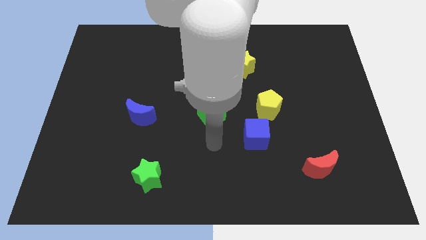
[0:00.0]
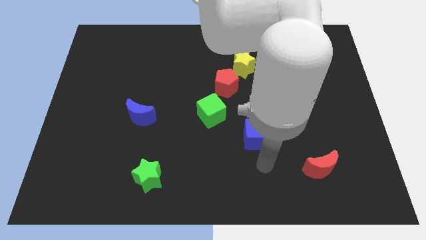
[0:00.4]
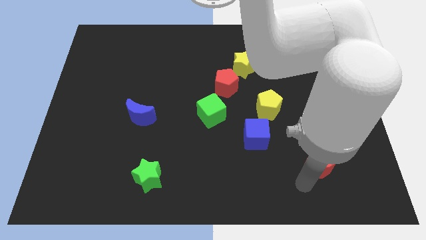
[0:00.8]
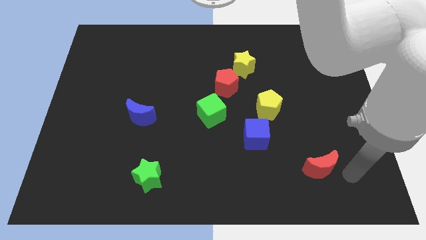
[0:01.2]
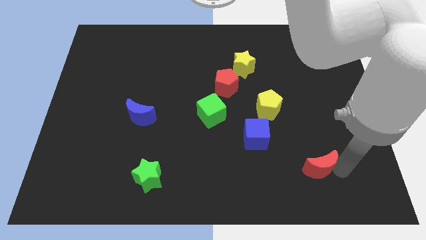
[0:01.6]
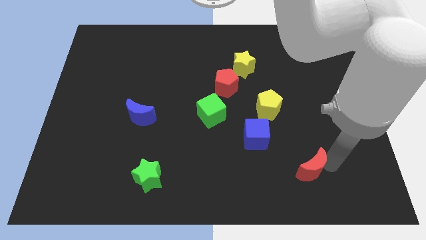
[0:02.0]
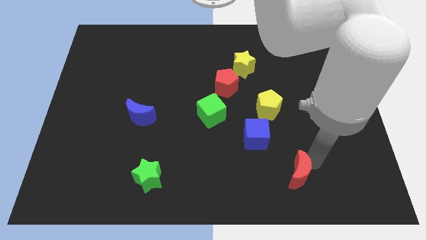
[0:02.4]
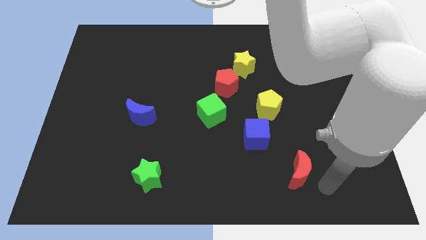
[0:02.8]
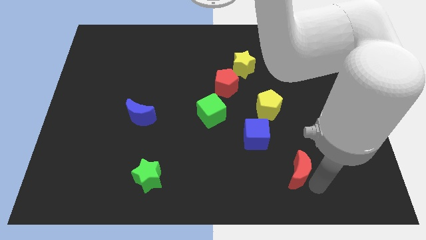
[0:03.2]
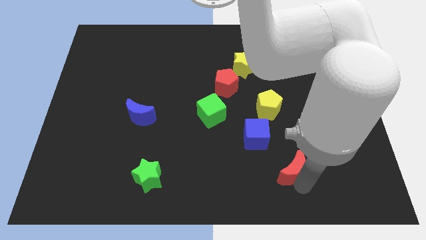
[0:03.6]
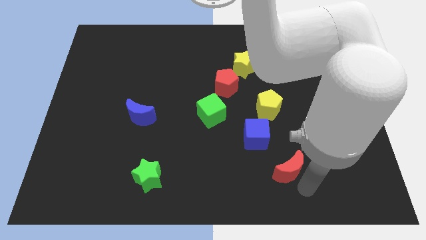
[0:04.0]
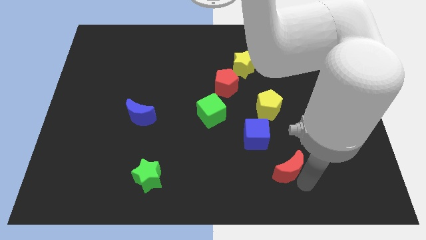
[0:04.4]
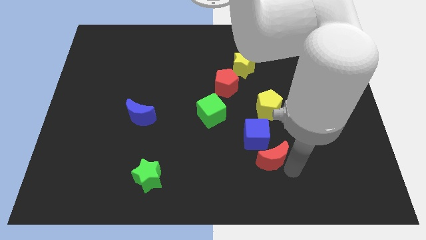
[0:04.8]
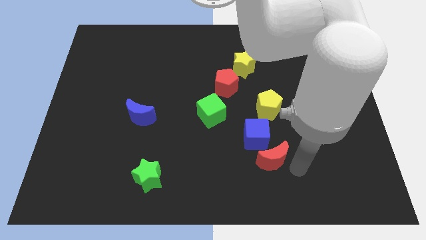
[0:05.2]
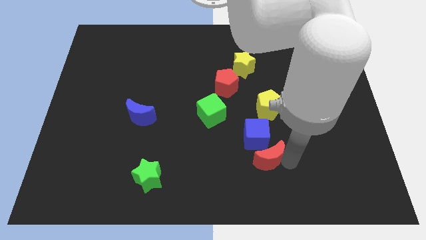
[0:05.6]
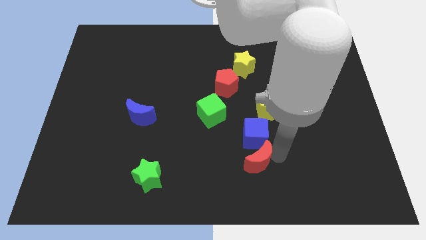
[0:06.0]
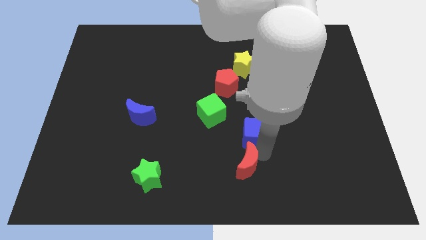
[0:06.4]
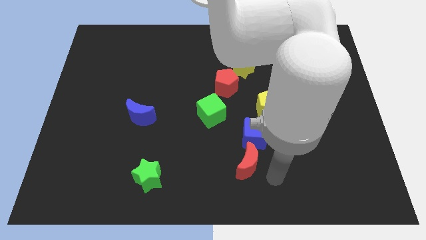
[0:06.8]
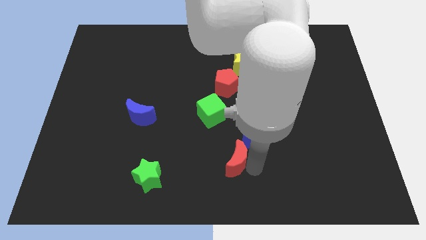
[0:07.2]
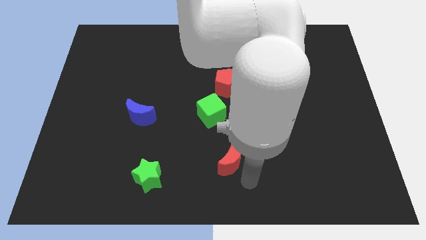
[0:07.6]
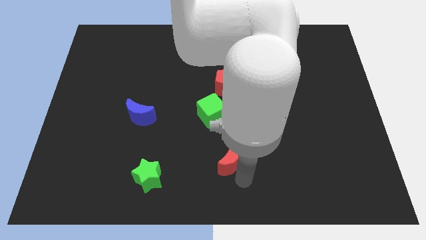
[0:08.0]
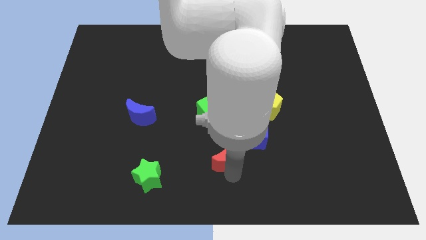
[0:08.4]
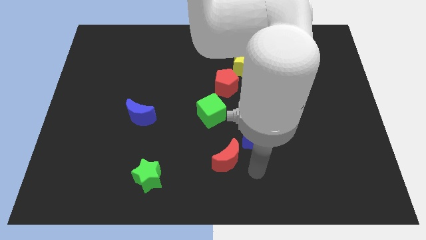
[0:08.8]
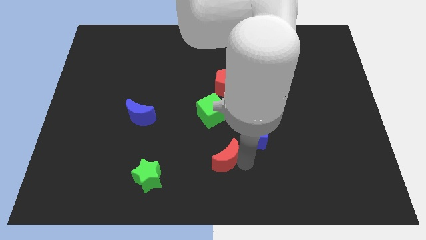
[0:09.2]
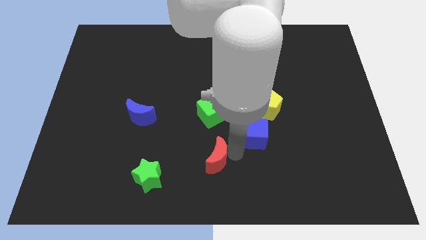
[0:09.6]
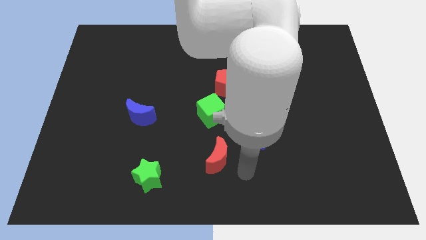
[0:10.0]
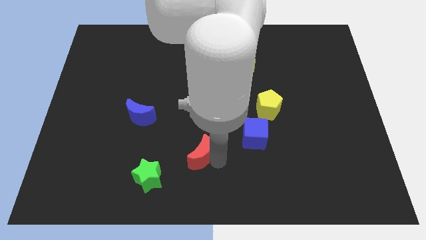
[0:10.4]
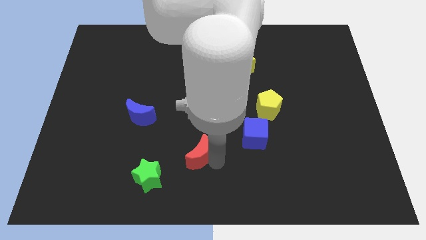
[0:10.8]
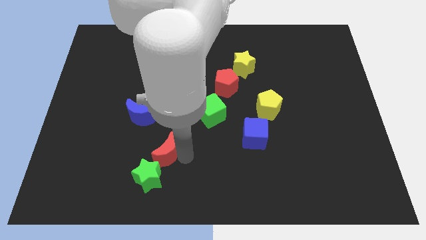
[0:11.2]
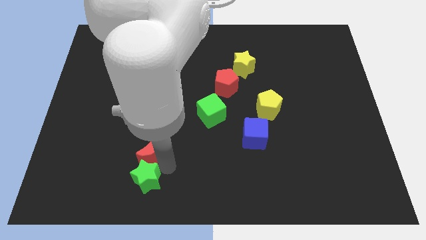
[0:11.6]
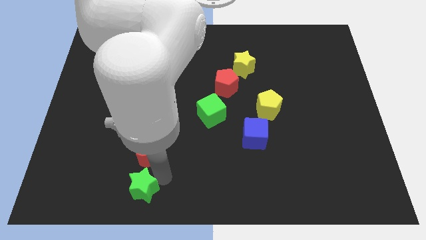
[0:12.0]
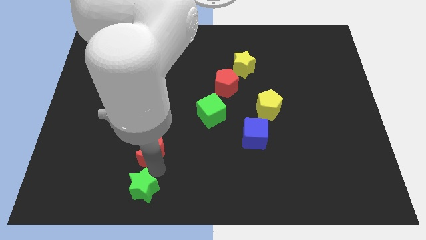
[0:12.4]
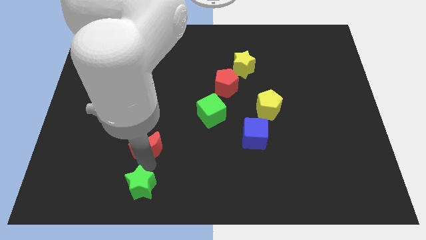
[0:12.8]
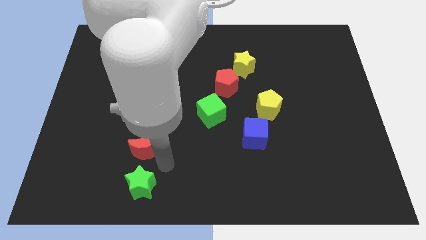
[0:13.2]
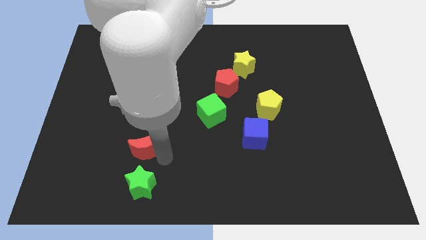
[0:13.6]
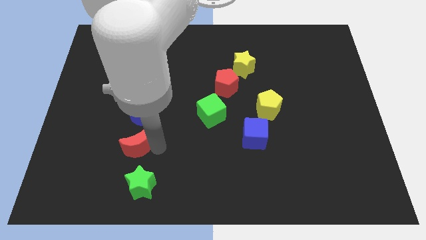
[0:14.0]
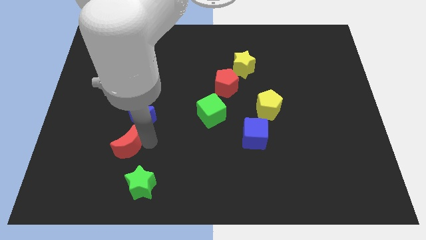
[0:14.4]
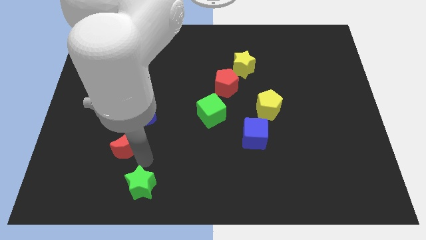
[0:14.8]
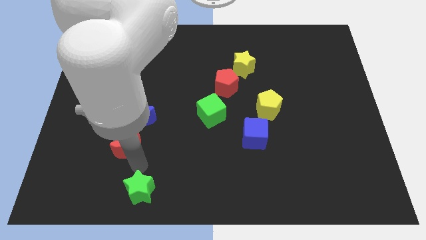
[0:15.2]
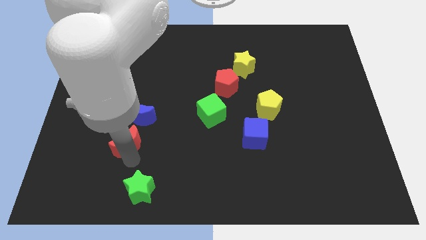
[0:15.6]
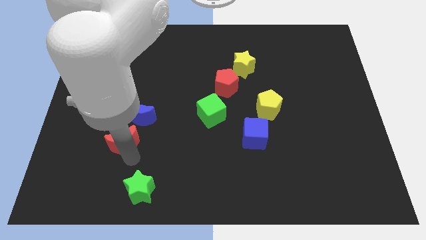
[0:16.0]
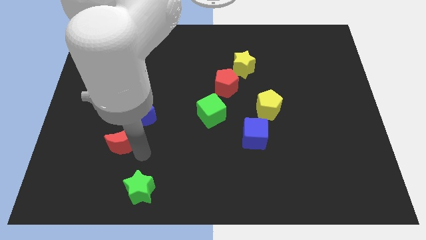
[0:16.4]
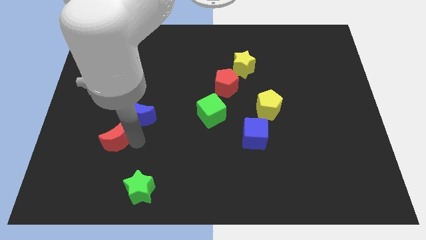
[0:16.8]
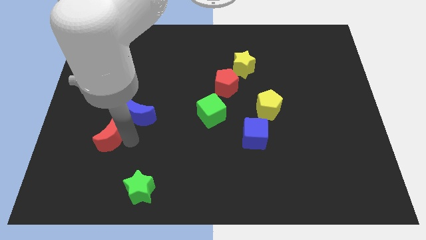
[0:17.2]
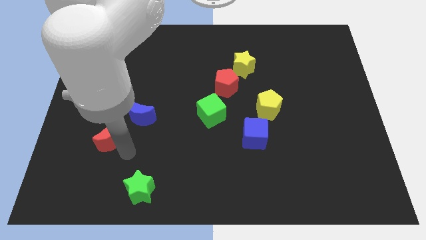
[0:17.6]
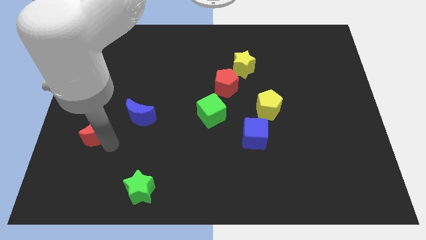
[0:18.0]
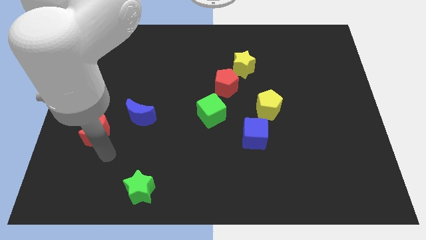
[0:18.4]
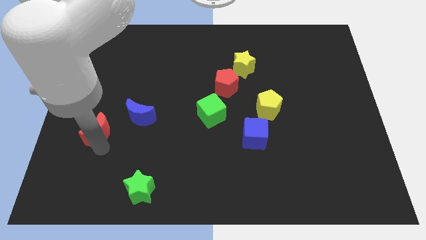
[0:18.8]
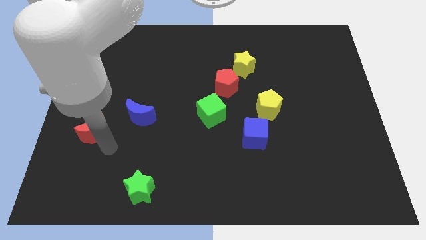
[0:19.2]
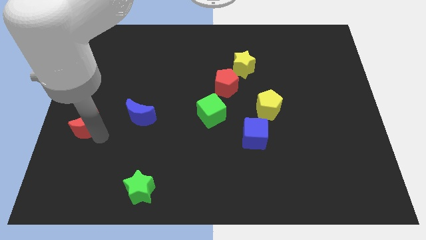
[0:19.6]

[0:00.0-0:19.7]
put the red moon to the left side of the board

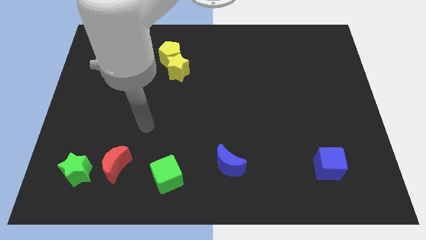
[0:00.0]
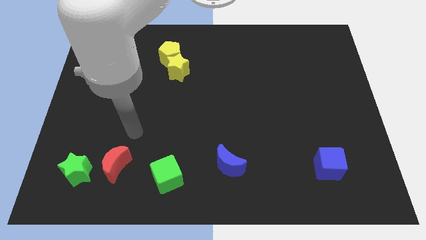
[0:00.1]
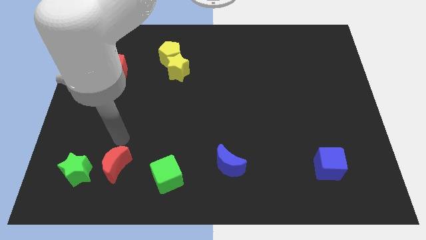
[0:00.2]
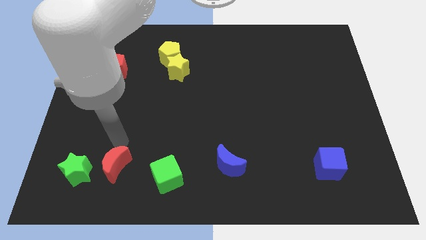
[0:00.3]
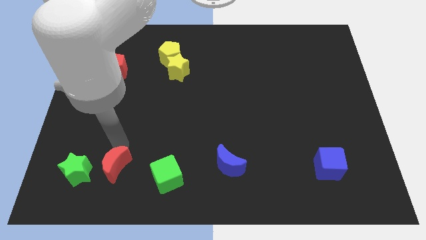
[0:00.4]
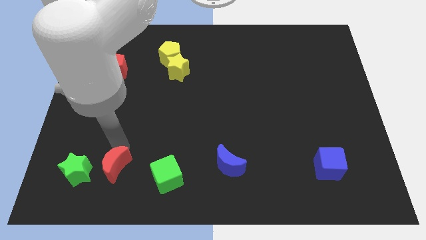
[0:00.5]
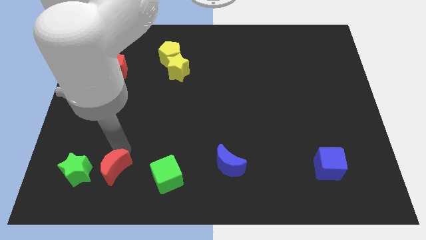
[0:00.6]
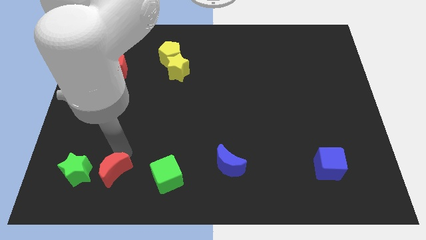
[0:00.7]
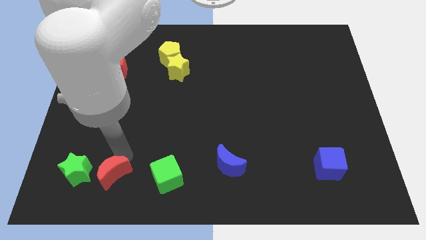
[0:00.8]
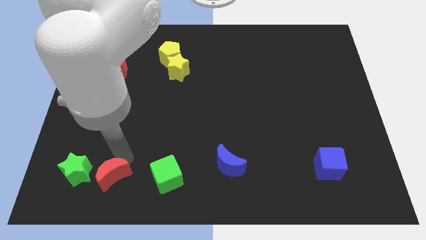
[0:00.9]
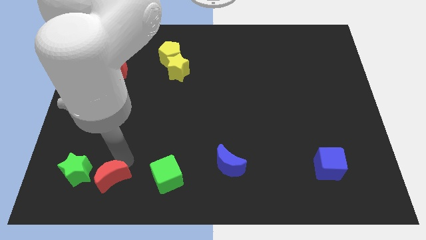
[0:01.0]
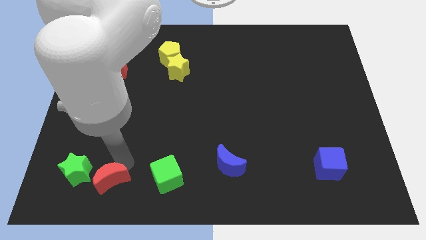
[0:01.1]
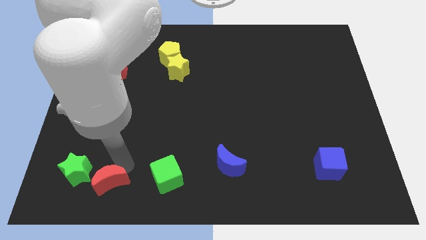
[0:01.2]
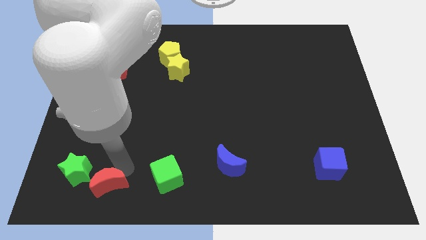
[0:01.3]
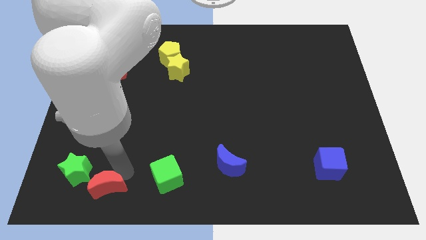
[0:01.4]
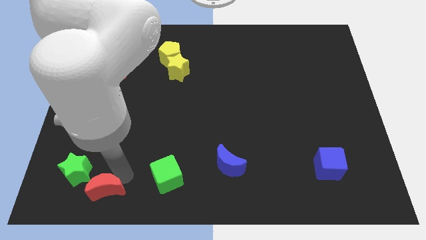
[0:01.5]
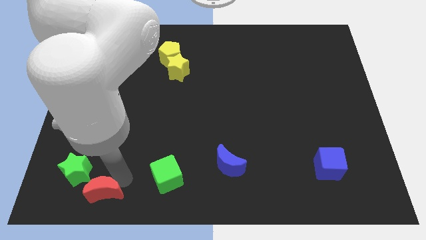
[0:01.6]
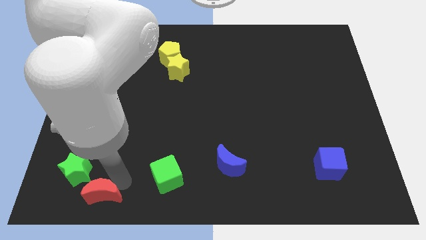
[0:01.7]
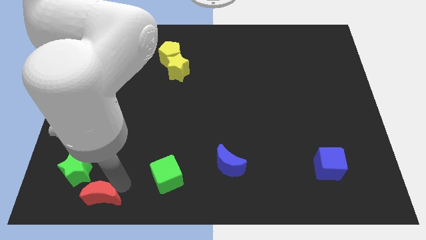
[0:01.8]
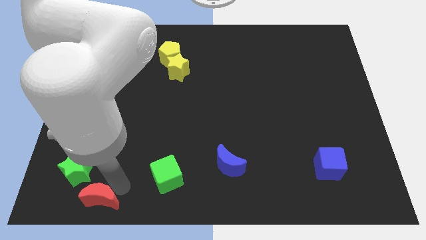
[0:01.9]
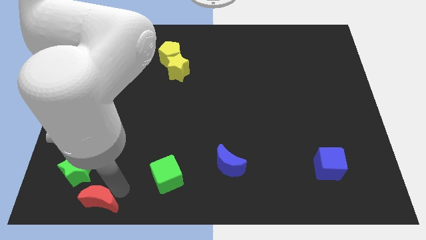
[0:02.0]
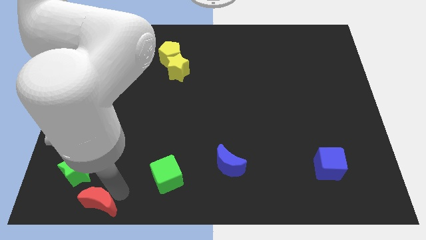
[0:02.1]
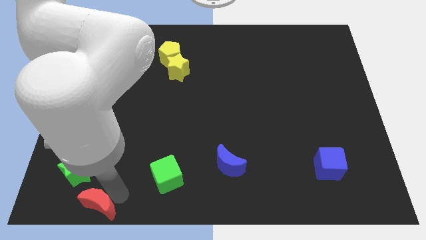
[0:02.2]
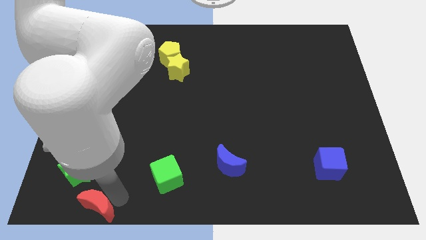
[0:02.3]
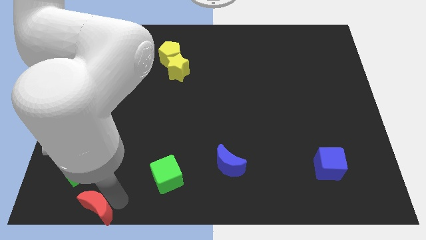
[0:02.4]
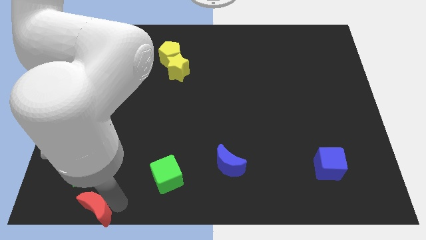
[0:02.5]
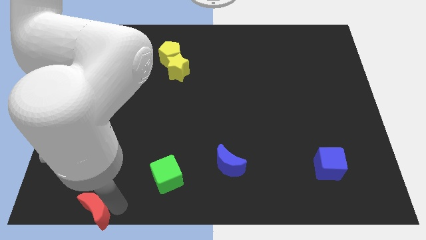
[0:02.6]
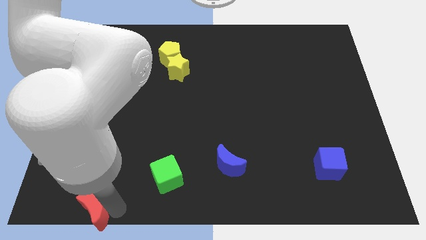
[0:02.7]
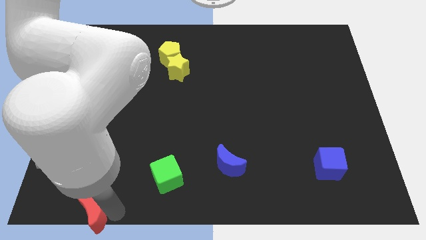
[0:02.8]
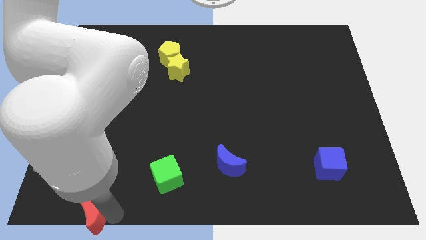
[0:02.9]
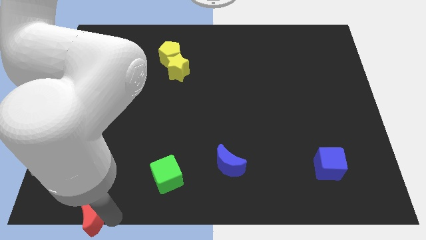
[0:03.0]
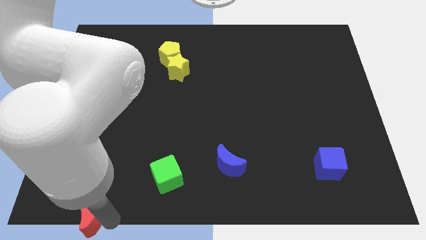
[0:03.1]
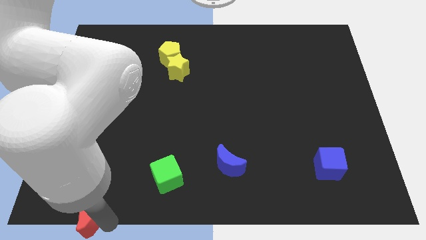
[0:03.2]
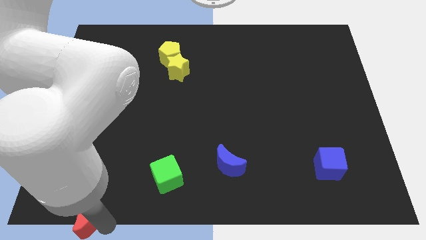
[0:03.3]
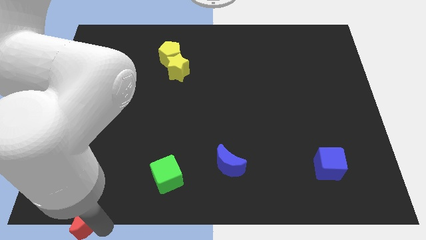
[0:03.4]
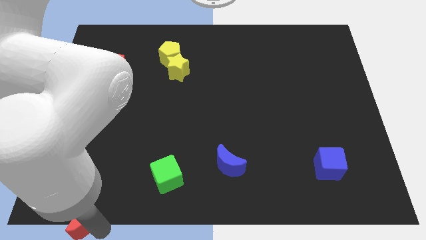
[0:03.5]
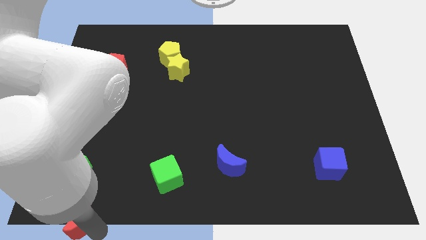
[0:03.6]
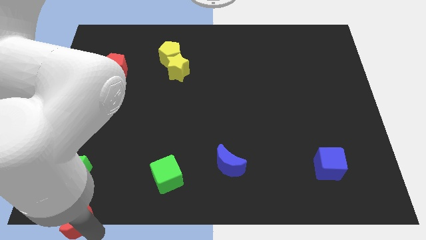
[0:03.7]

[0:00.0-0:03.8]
move the red moon to the bottom left of the board
